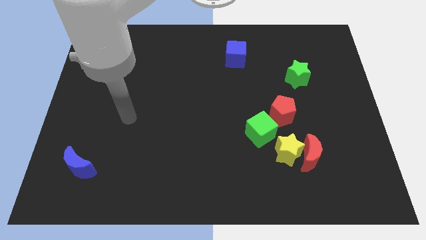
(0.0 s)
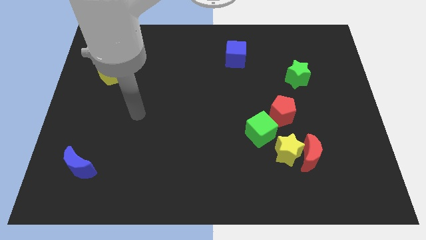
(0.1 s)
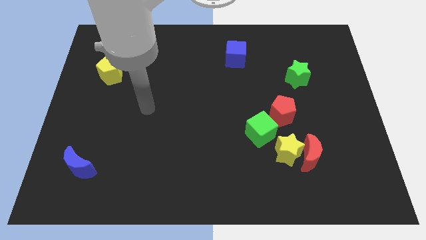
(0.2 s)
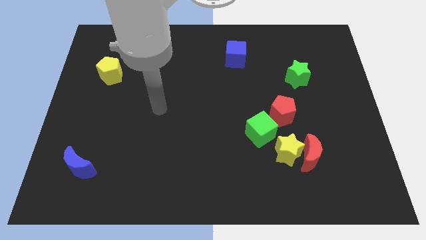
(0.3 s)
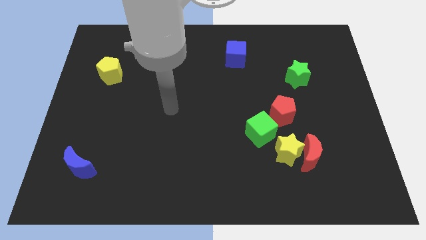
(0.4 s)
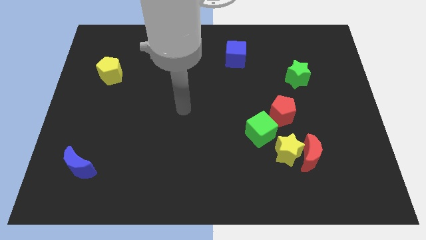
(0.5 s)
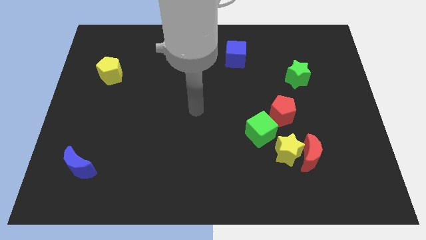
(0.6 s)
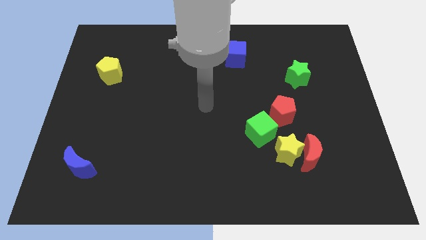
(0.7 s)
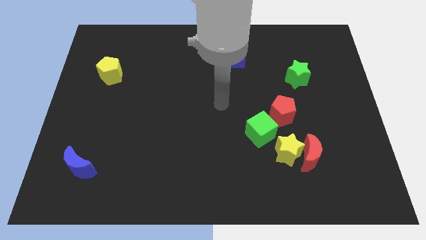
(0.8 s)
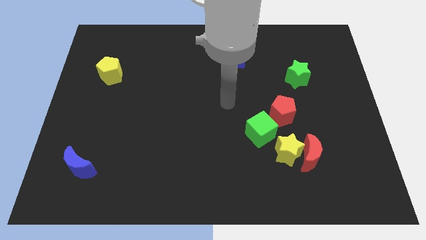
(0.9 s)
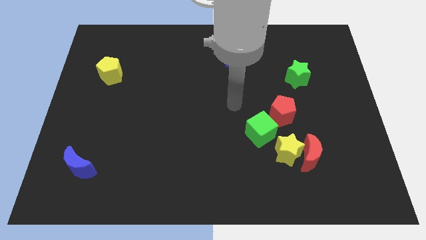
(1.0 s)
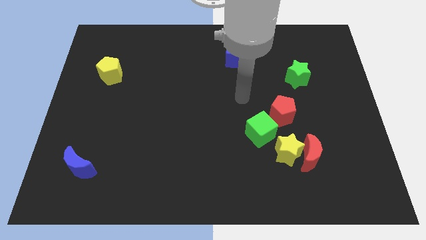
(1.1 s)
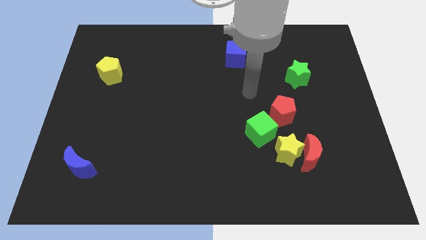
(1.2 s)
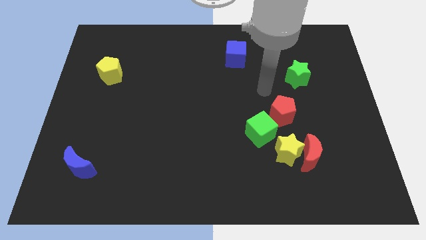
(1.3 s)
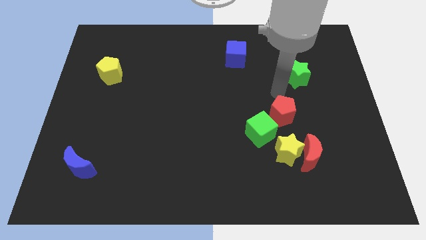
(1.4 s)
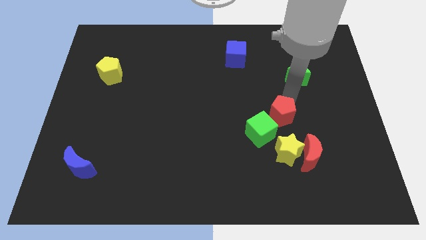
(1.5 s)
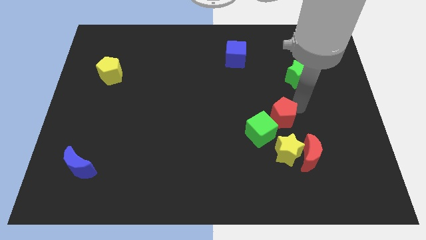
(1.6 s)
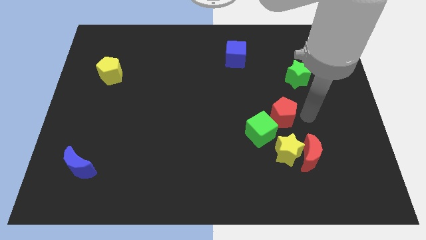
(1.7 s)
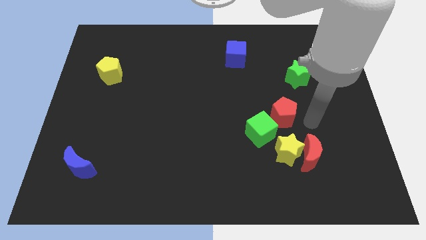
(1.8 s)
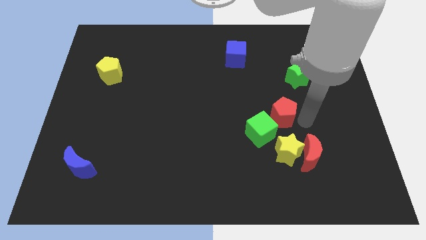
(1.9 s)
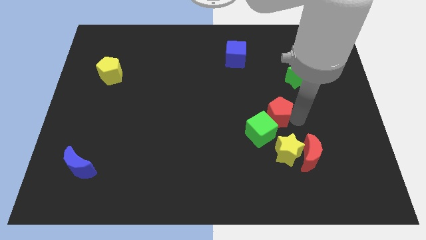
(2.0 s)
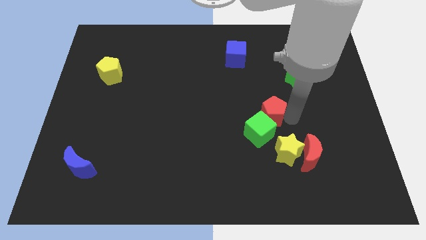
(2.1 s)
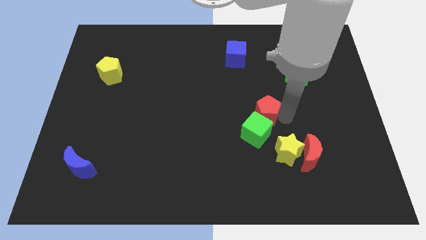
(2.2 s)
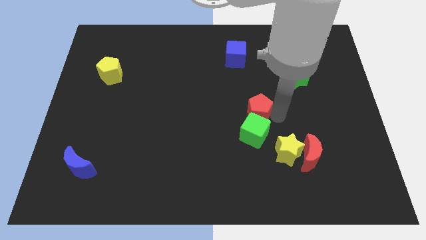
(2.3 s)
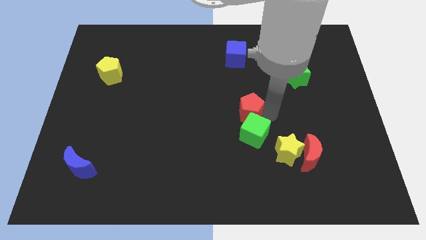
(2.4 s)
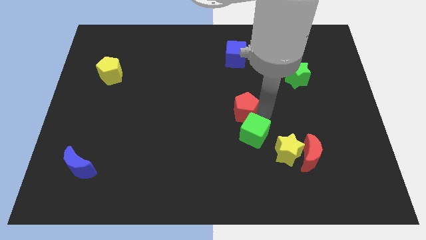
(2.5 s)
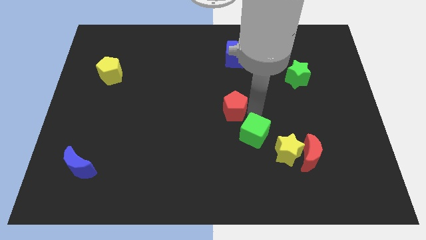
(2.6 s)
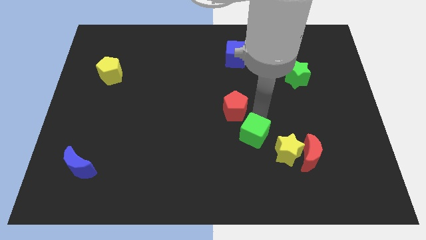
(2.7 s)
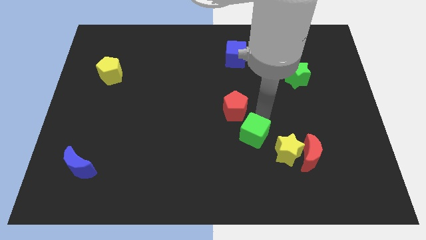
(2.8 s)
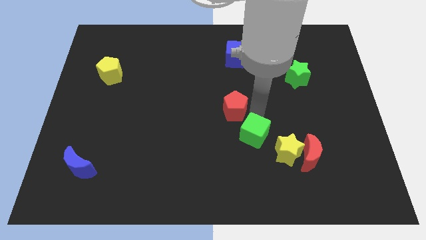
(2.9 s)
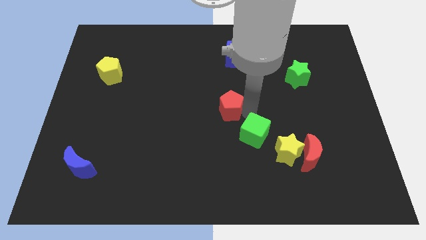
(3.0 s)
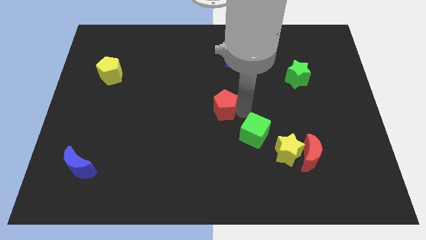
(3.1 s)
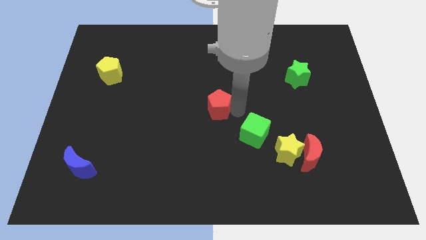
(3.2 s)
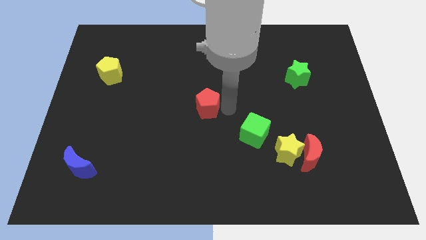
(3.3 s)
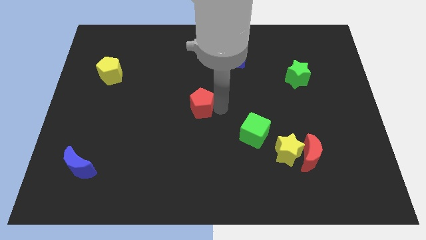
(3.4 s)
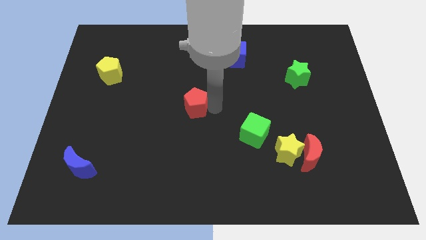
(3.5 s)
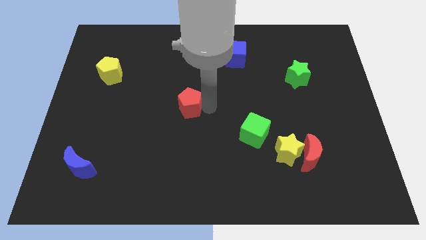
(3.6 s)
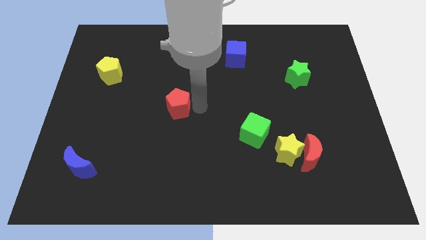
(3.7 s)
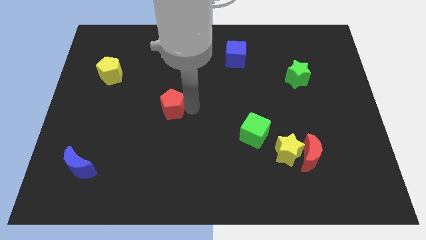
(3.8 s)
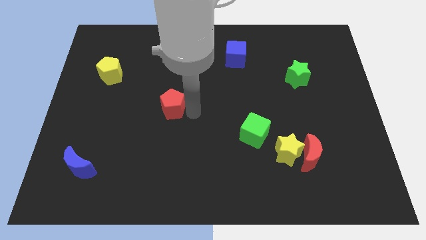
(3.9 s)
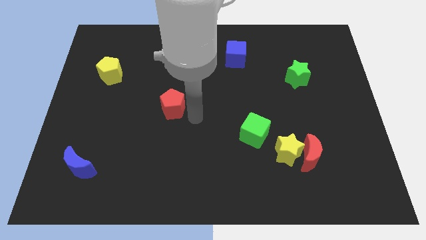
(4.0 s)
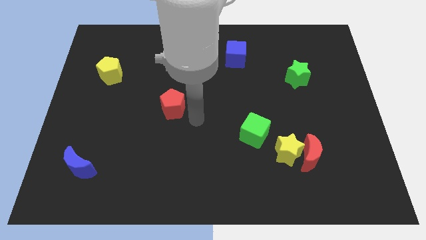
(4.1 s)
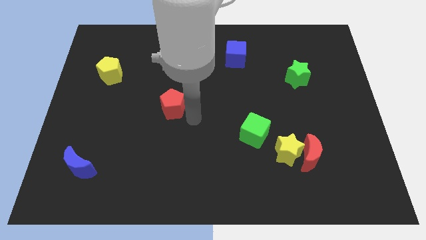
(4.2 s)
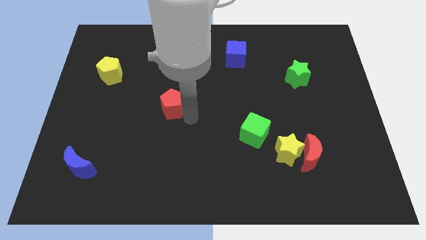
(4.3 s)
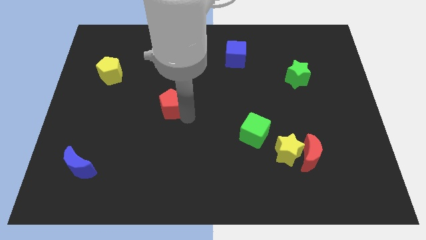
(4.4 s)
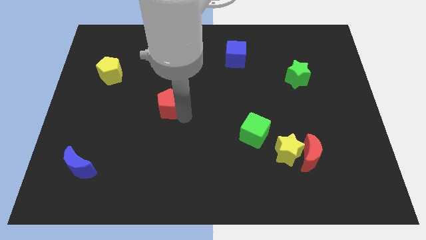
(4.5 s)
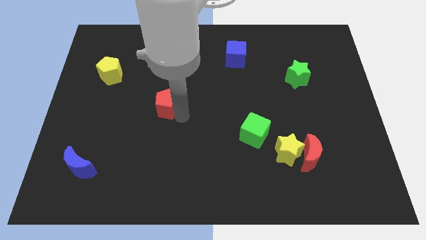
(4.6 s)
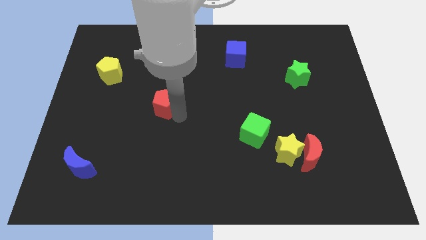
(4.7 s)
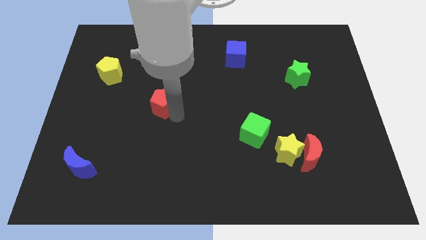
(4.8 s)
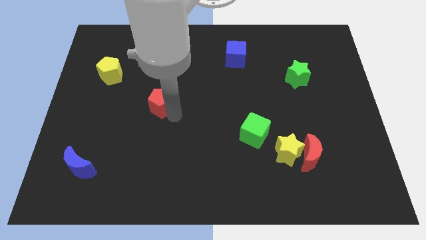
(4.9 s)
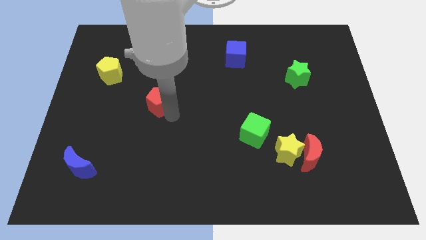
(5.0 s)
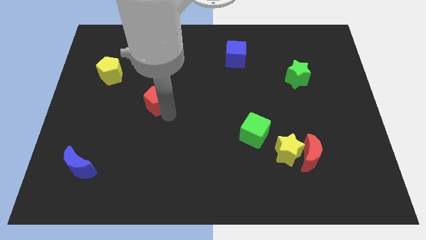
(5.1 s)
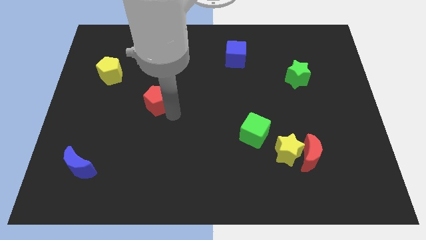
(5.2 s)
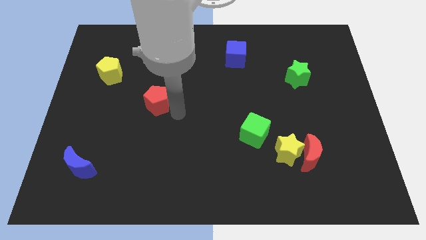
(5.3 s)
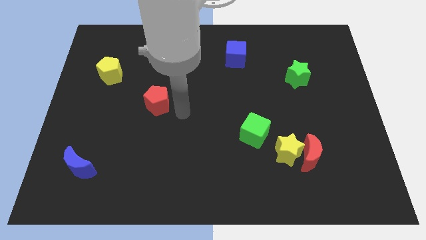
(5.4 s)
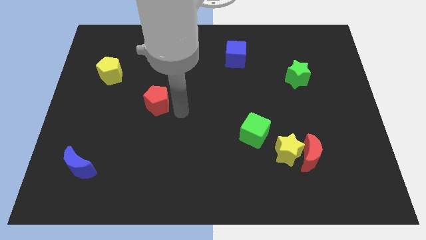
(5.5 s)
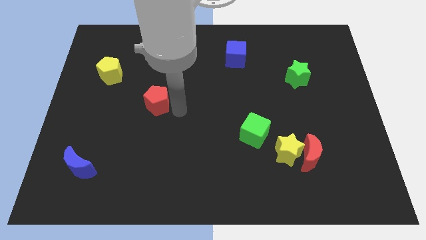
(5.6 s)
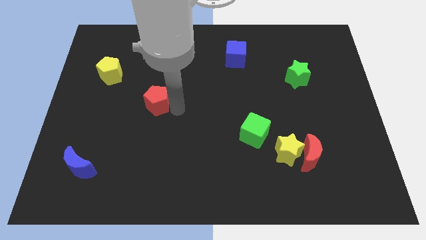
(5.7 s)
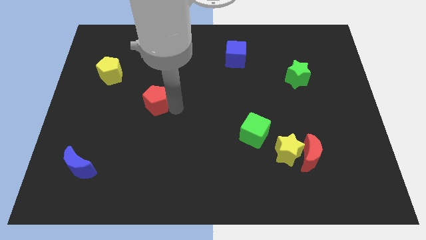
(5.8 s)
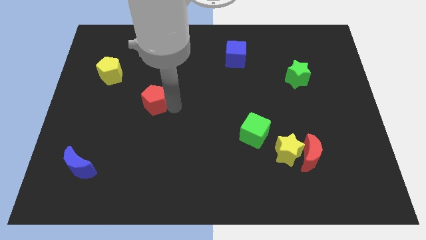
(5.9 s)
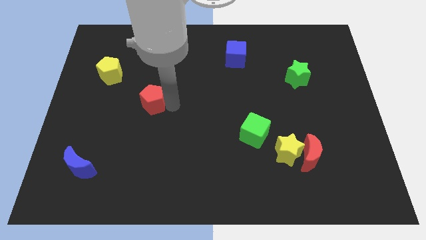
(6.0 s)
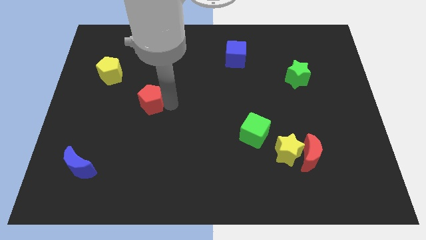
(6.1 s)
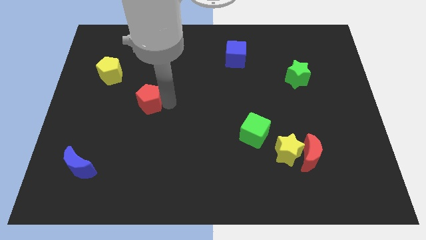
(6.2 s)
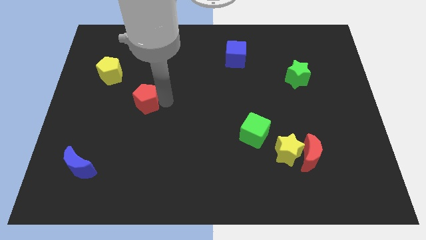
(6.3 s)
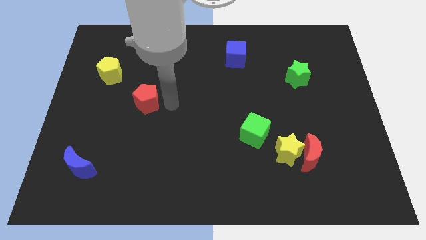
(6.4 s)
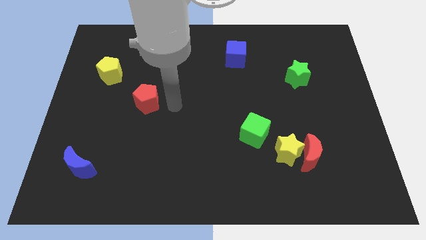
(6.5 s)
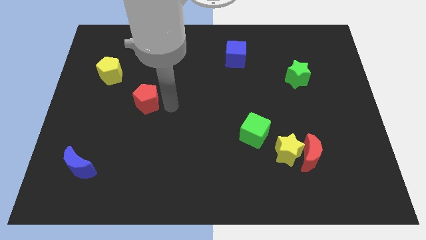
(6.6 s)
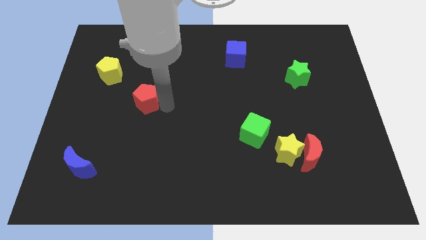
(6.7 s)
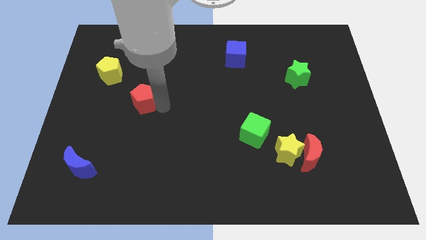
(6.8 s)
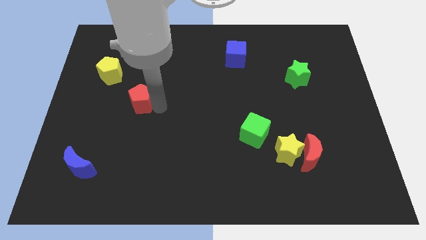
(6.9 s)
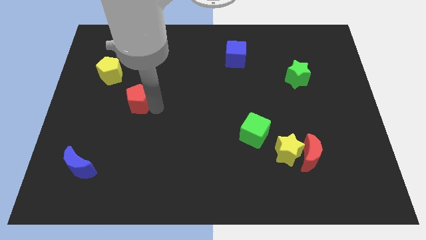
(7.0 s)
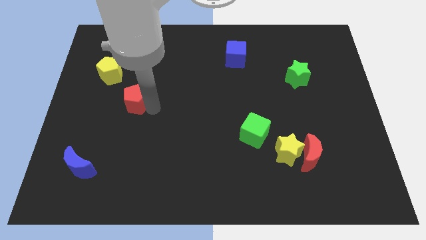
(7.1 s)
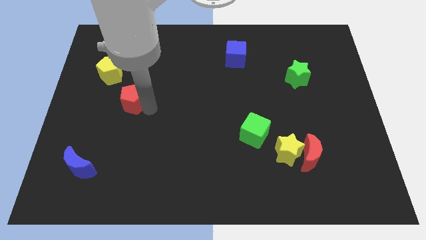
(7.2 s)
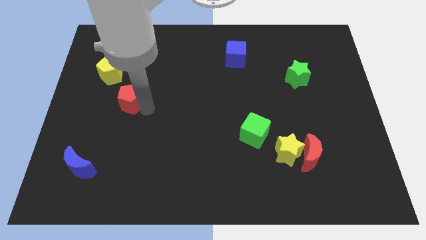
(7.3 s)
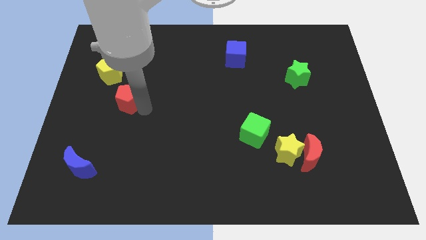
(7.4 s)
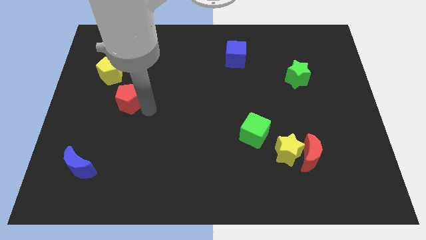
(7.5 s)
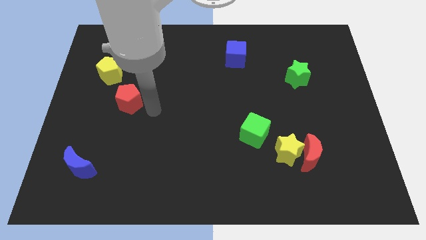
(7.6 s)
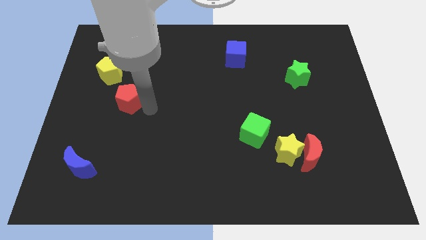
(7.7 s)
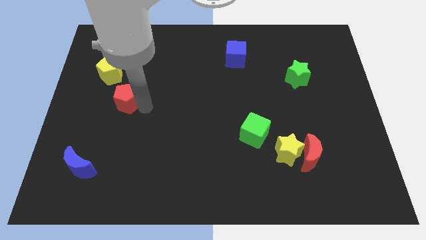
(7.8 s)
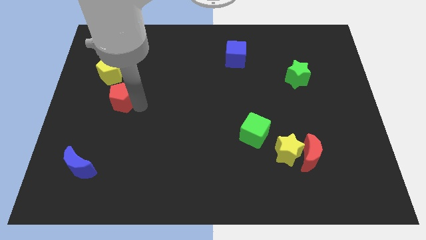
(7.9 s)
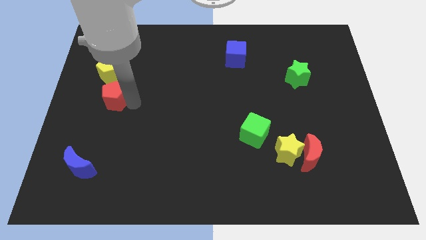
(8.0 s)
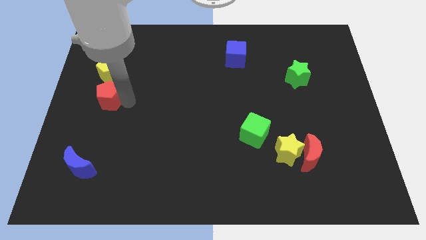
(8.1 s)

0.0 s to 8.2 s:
move the red pentagon to the left side of the board
